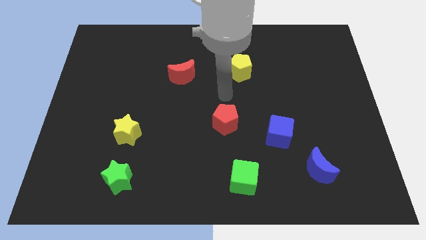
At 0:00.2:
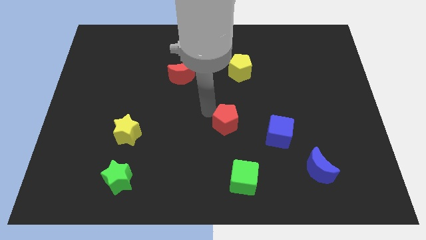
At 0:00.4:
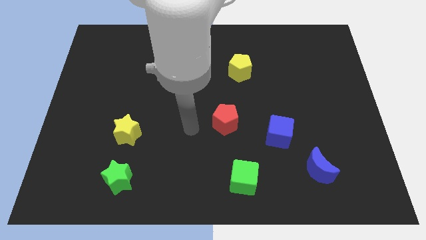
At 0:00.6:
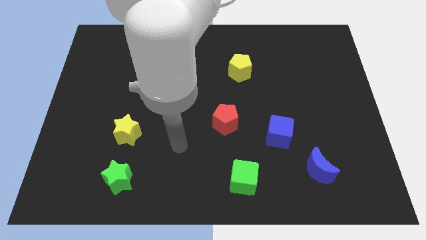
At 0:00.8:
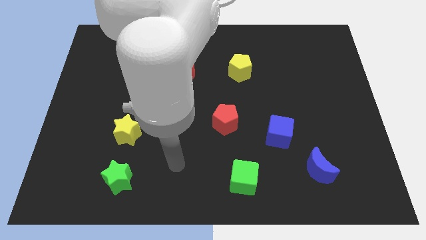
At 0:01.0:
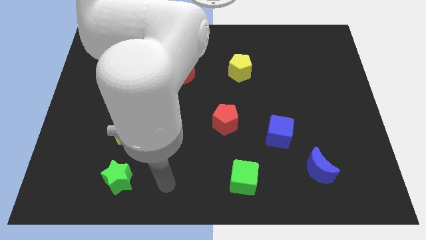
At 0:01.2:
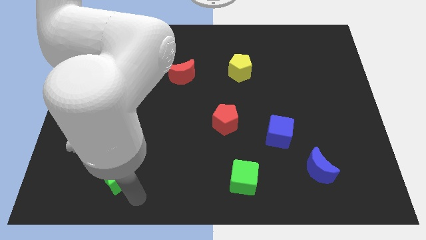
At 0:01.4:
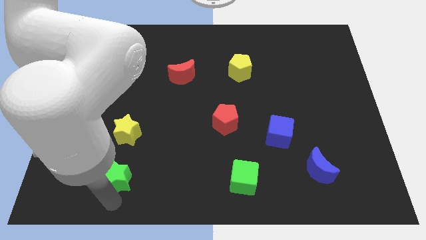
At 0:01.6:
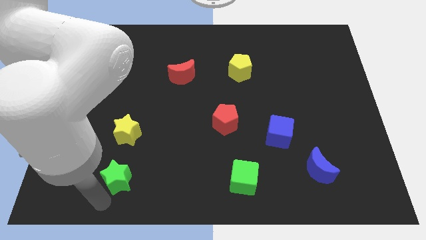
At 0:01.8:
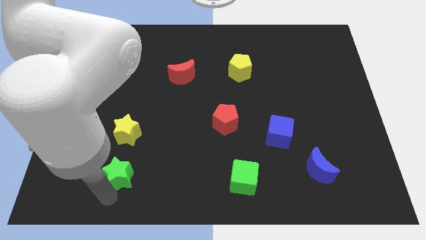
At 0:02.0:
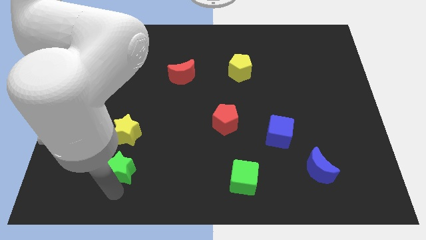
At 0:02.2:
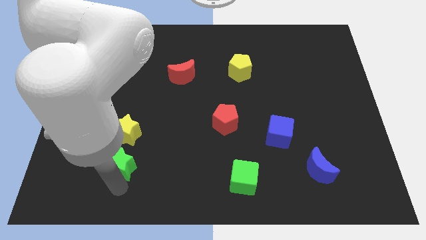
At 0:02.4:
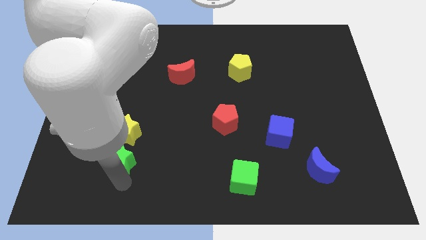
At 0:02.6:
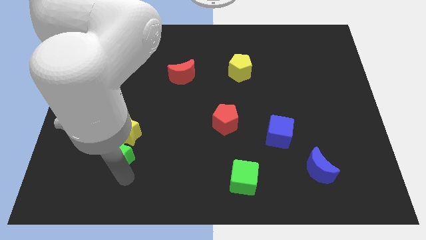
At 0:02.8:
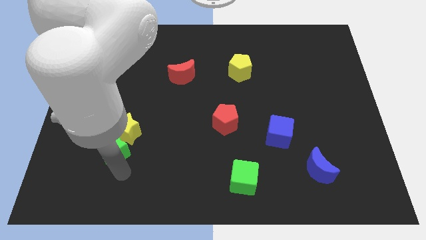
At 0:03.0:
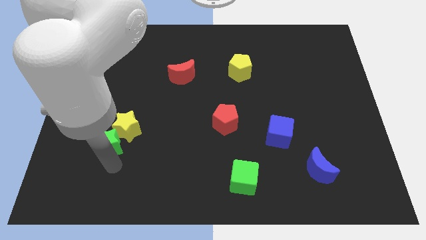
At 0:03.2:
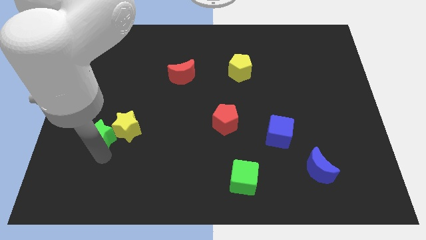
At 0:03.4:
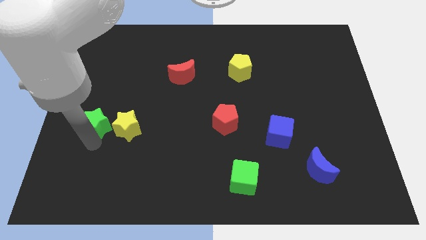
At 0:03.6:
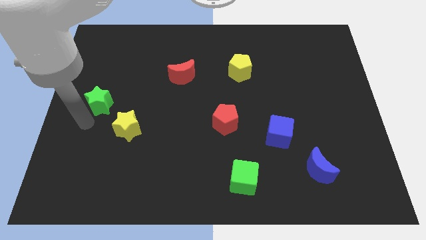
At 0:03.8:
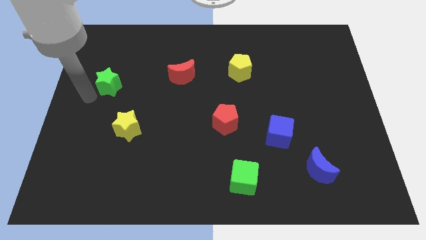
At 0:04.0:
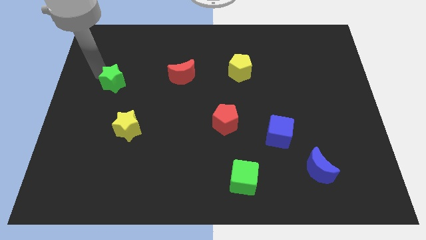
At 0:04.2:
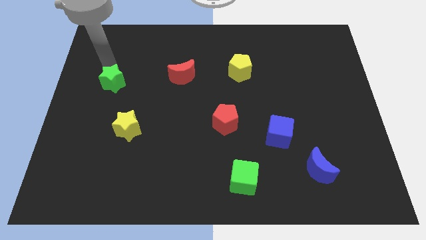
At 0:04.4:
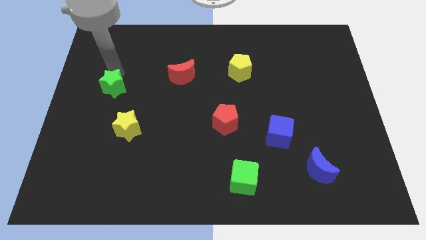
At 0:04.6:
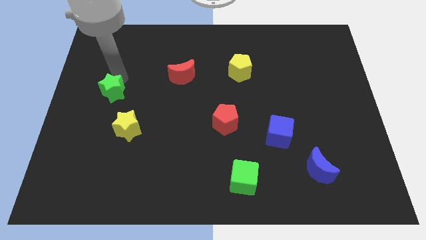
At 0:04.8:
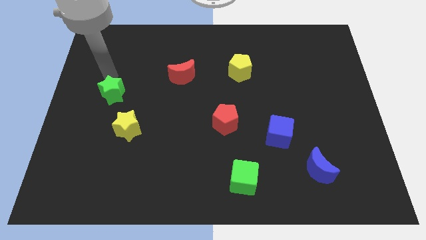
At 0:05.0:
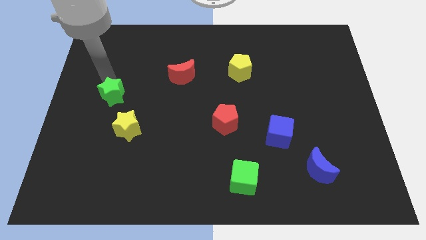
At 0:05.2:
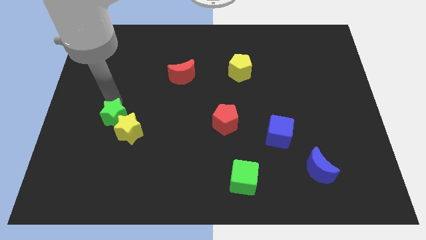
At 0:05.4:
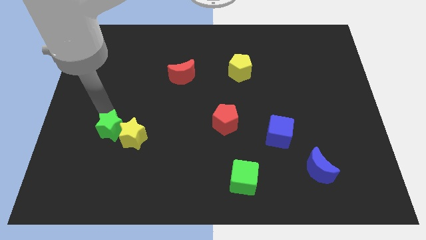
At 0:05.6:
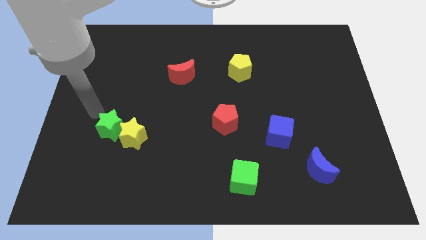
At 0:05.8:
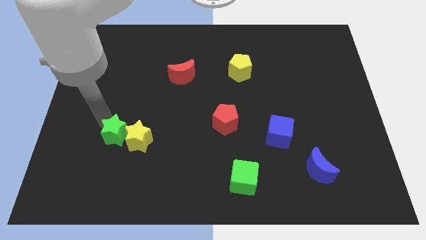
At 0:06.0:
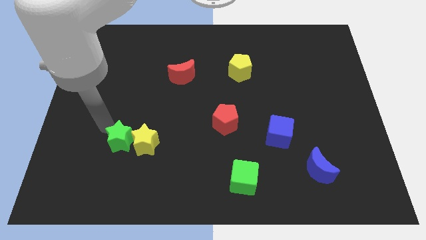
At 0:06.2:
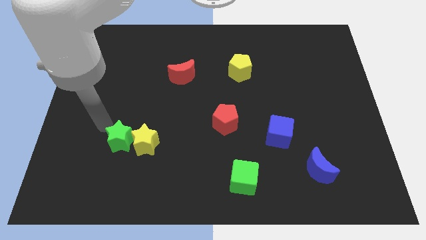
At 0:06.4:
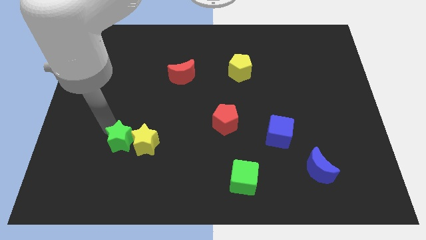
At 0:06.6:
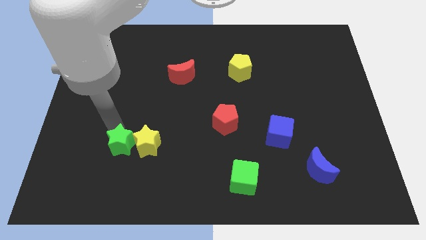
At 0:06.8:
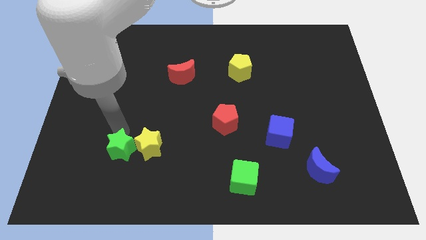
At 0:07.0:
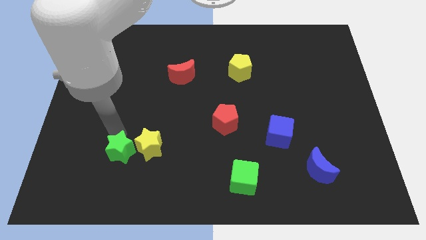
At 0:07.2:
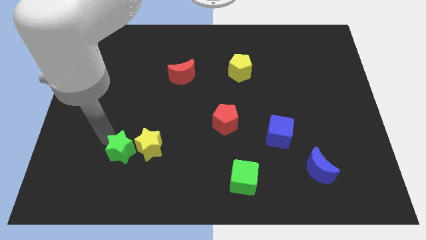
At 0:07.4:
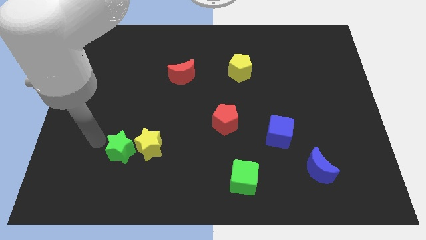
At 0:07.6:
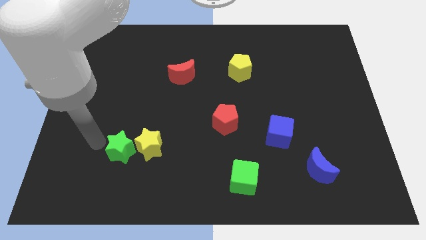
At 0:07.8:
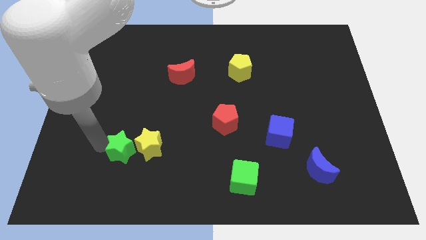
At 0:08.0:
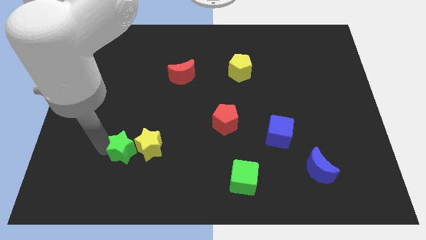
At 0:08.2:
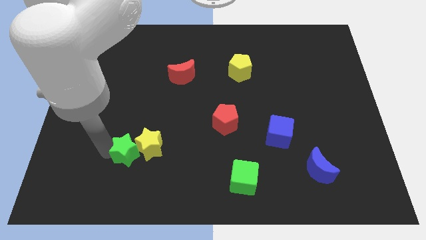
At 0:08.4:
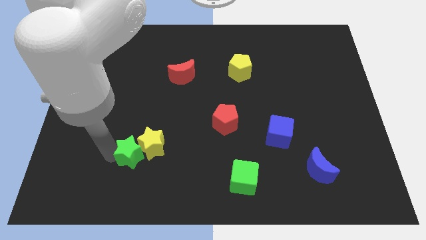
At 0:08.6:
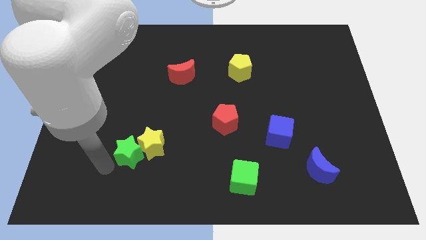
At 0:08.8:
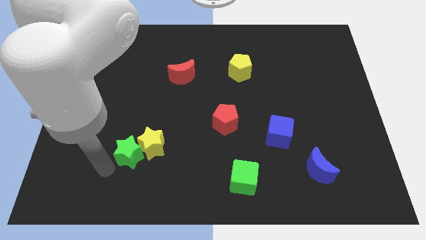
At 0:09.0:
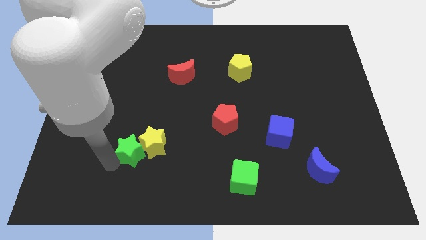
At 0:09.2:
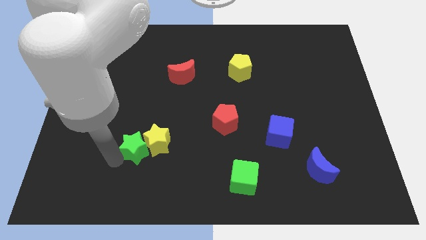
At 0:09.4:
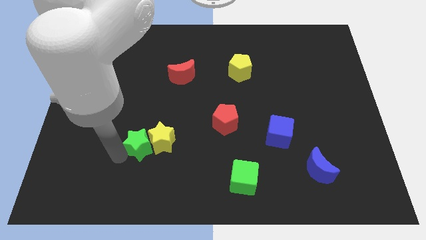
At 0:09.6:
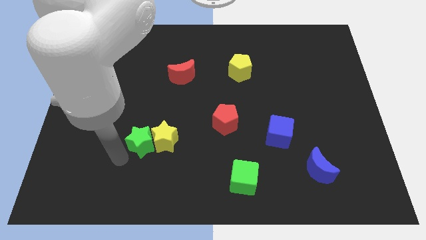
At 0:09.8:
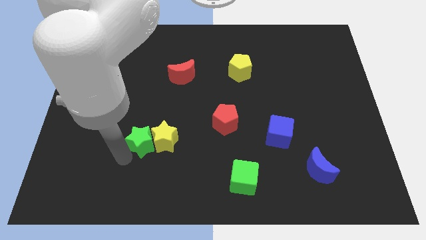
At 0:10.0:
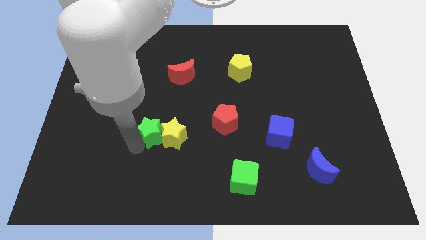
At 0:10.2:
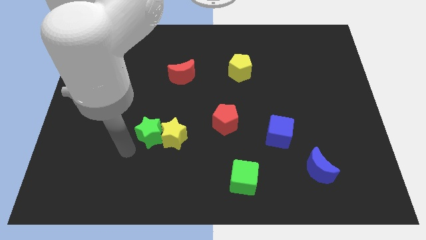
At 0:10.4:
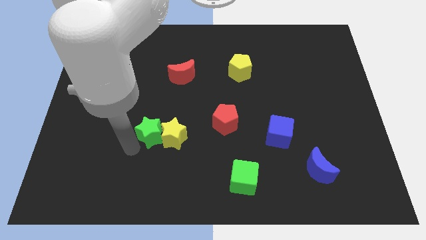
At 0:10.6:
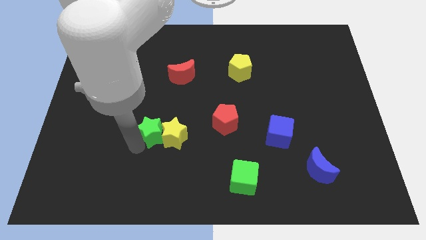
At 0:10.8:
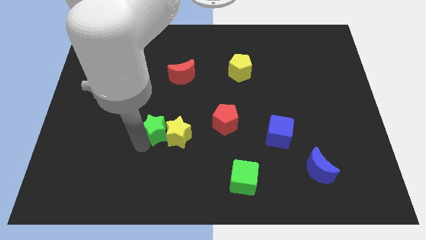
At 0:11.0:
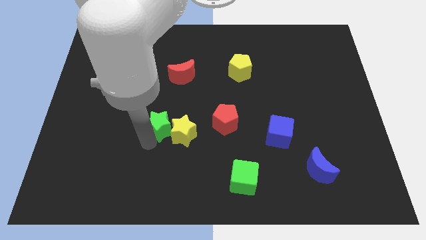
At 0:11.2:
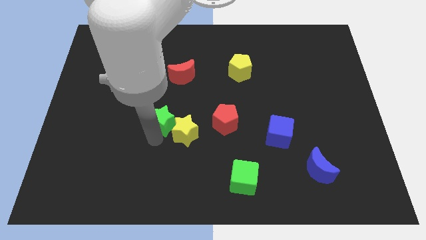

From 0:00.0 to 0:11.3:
slide the green star to the bottom of the red moon

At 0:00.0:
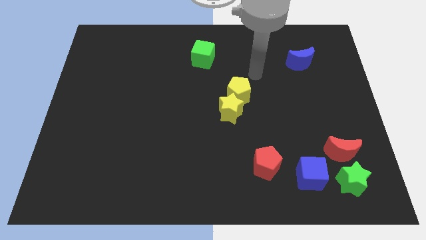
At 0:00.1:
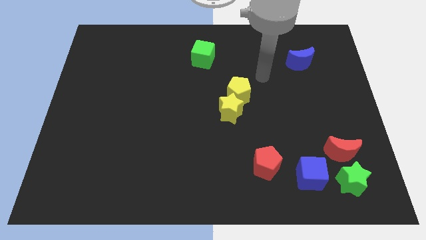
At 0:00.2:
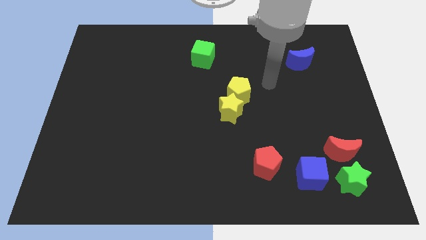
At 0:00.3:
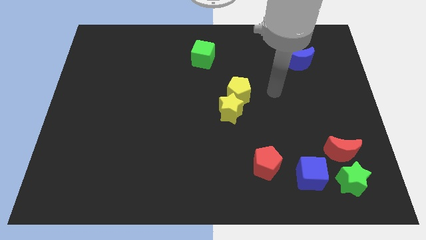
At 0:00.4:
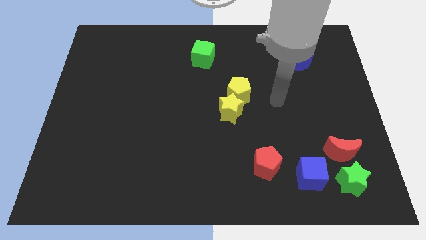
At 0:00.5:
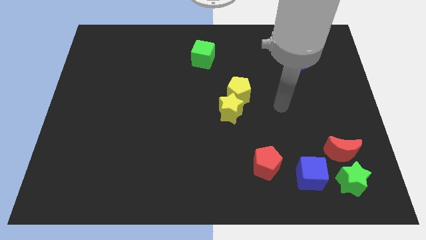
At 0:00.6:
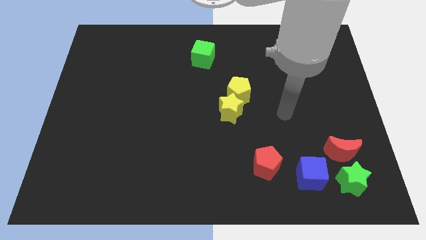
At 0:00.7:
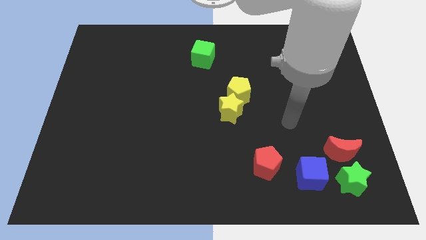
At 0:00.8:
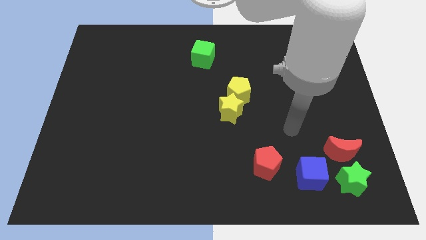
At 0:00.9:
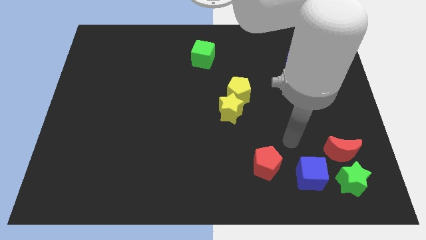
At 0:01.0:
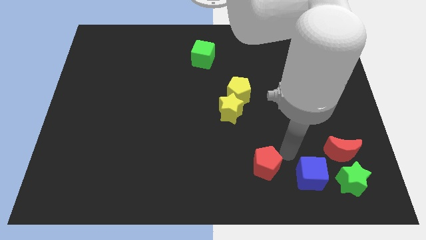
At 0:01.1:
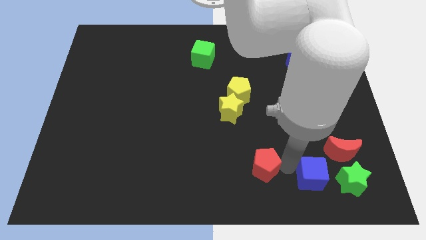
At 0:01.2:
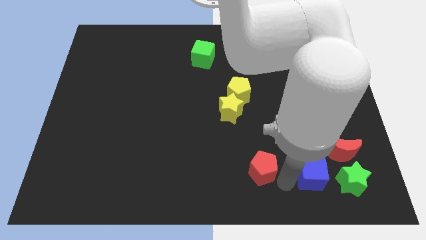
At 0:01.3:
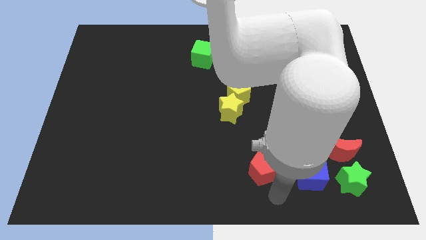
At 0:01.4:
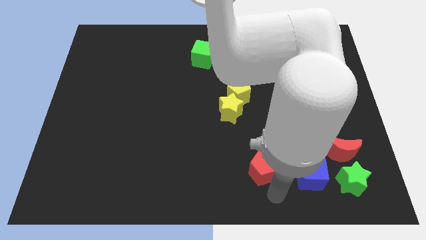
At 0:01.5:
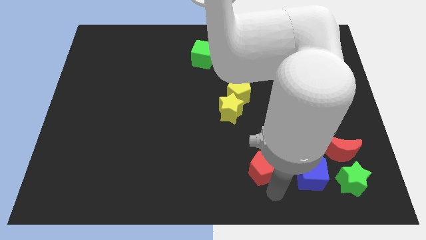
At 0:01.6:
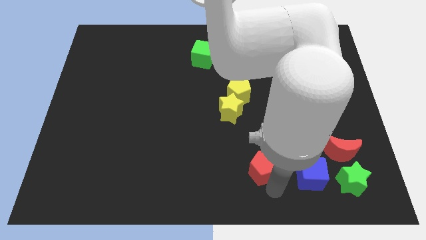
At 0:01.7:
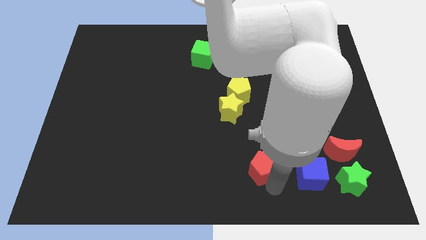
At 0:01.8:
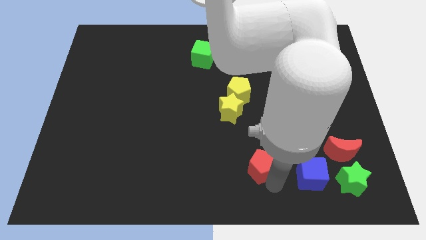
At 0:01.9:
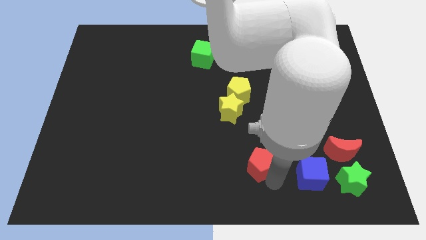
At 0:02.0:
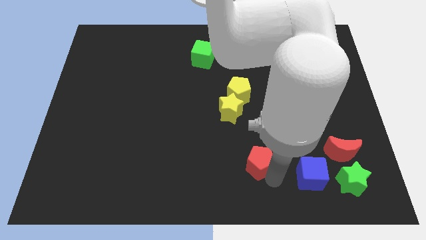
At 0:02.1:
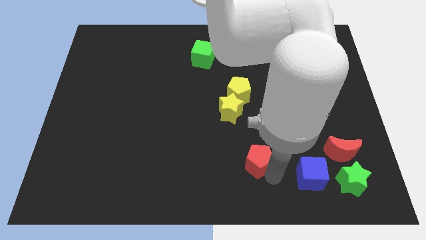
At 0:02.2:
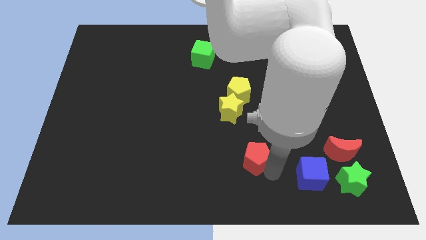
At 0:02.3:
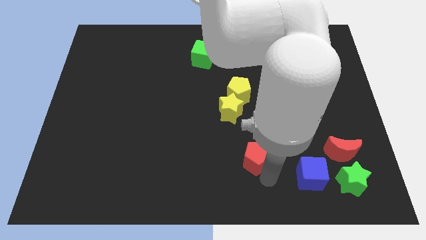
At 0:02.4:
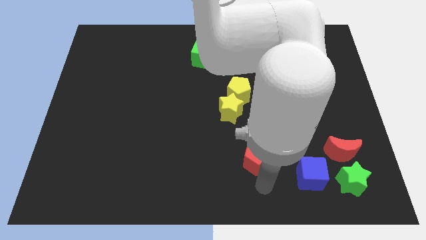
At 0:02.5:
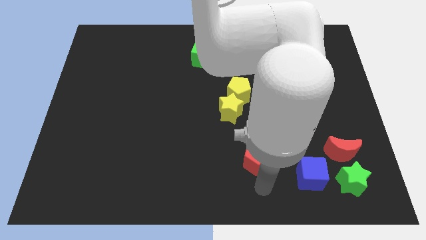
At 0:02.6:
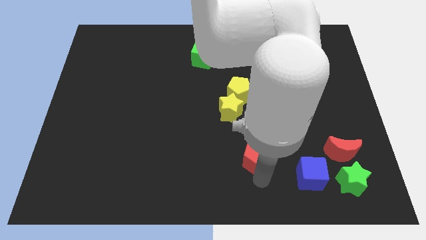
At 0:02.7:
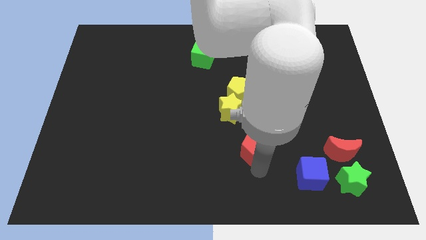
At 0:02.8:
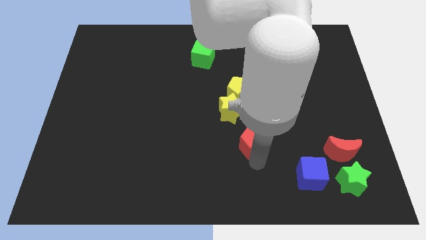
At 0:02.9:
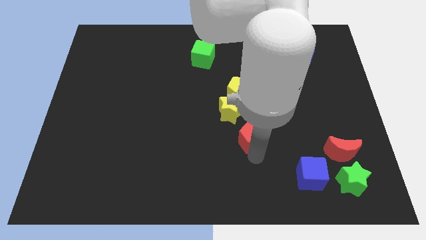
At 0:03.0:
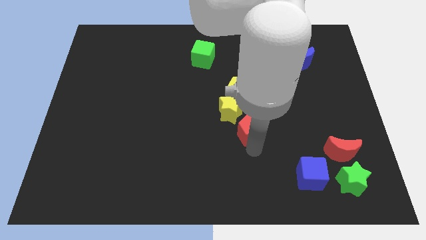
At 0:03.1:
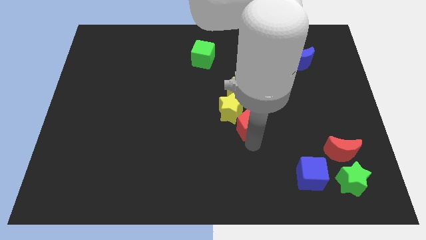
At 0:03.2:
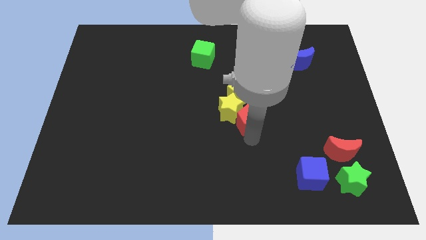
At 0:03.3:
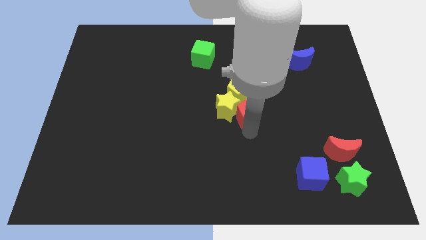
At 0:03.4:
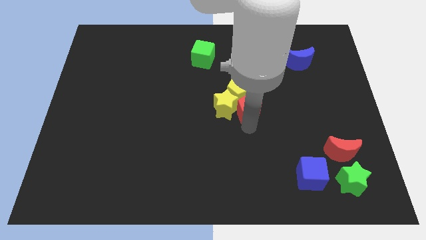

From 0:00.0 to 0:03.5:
move the red pentagon to the top right of the yellow star
